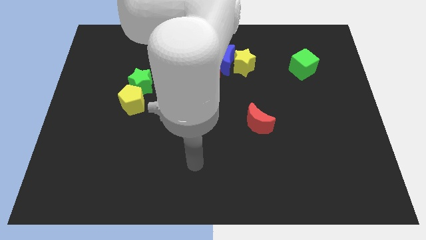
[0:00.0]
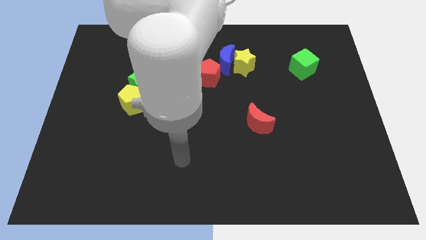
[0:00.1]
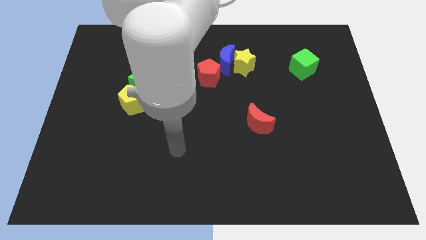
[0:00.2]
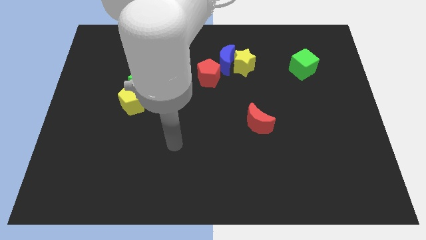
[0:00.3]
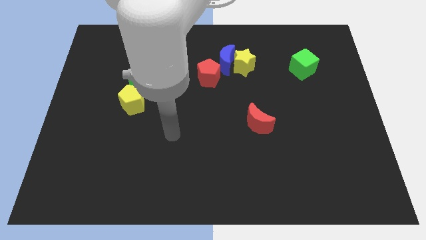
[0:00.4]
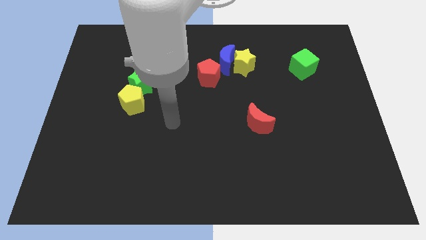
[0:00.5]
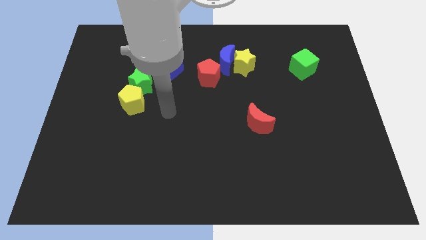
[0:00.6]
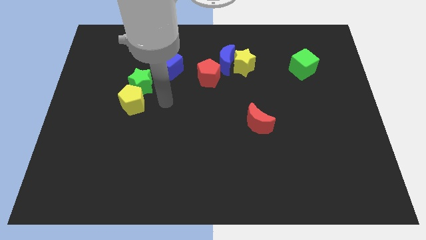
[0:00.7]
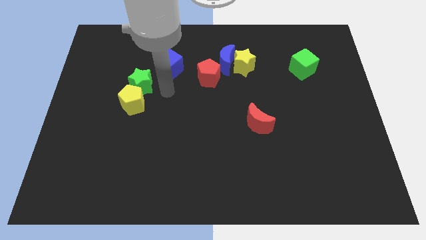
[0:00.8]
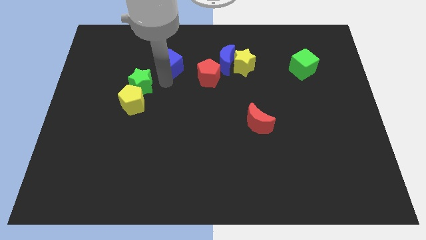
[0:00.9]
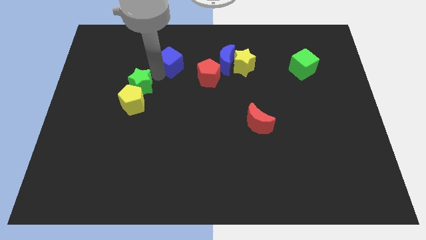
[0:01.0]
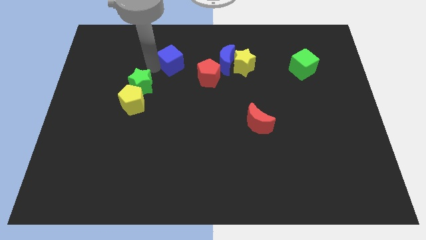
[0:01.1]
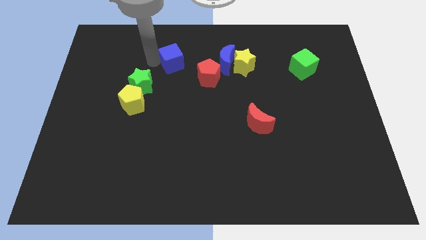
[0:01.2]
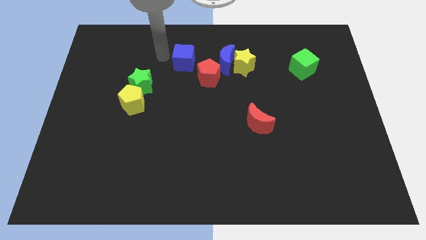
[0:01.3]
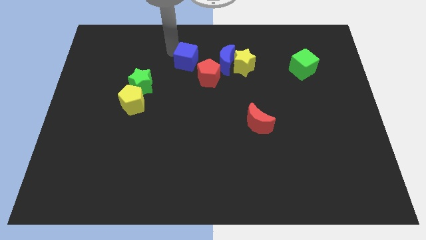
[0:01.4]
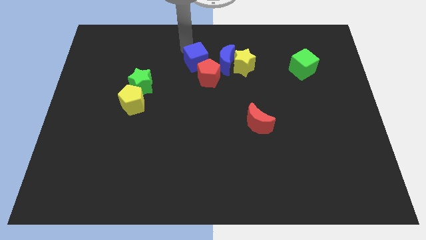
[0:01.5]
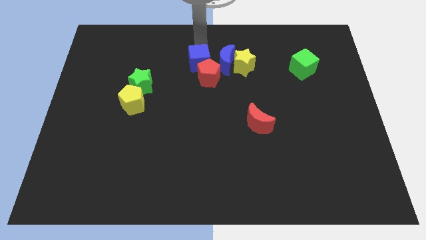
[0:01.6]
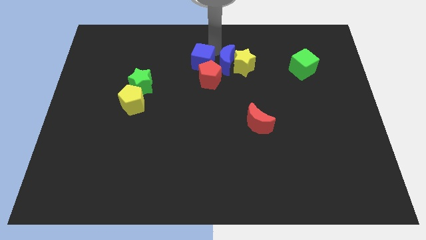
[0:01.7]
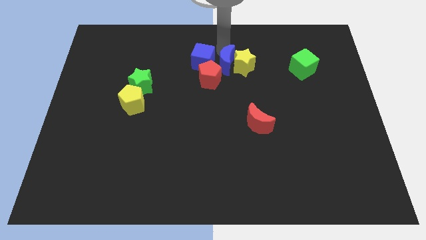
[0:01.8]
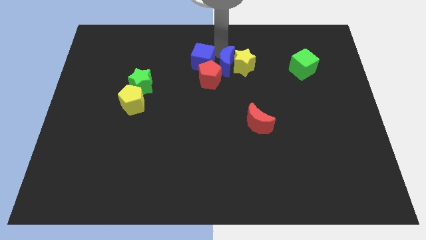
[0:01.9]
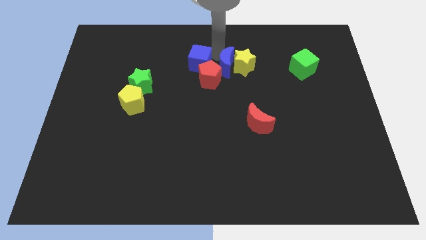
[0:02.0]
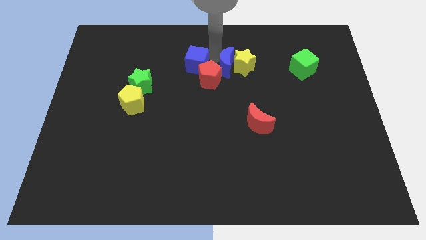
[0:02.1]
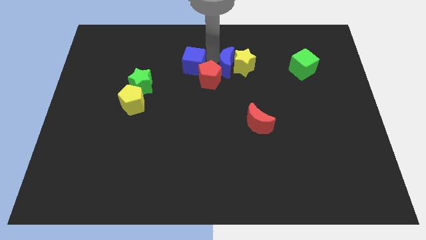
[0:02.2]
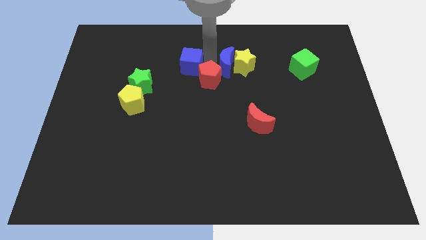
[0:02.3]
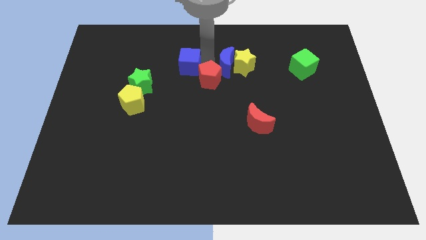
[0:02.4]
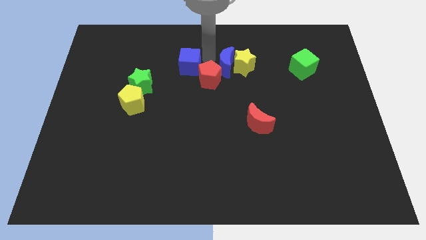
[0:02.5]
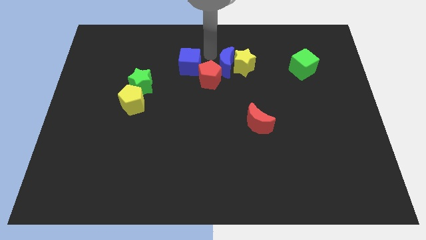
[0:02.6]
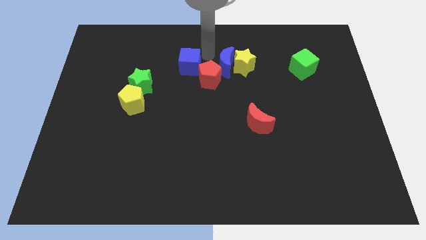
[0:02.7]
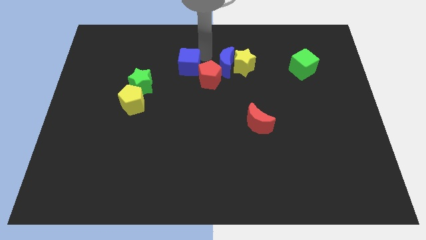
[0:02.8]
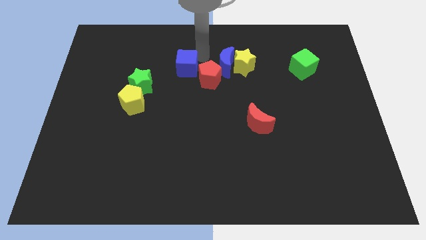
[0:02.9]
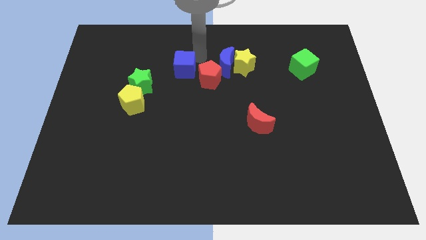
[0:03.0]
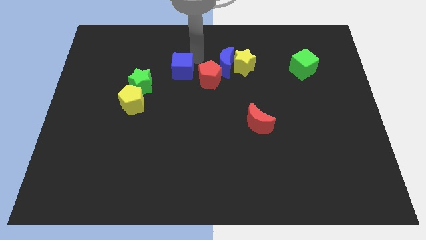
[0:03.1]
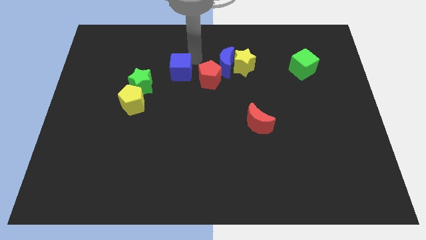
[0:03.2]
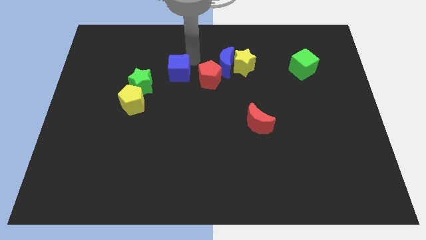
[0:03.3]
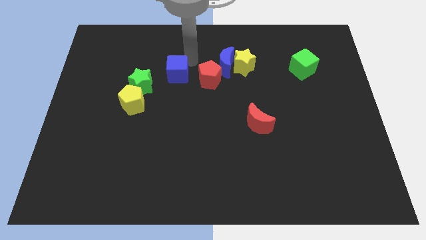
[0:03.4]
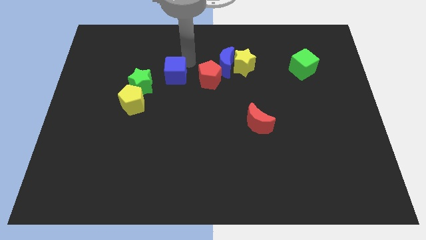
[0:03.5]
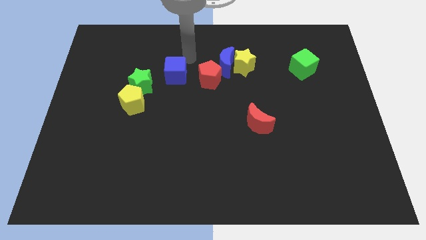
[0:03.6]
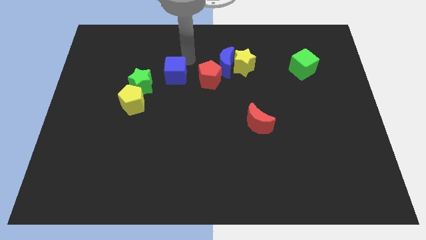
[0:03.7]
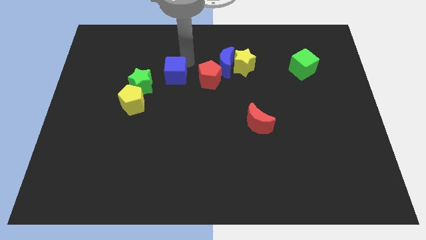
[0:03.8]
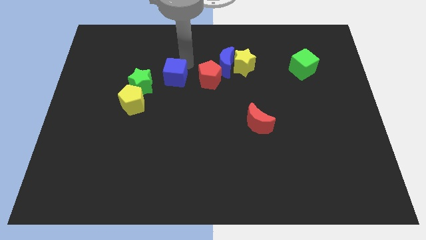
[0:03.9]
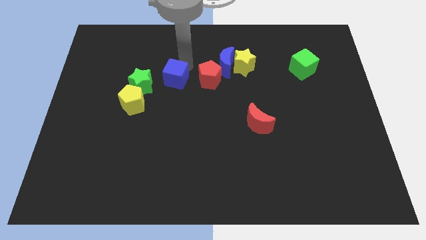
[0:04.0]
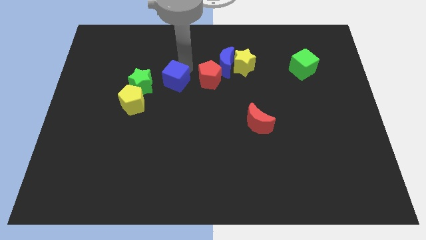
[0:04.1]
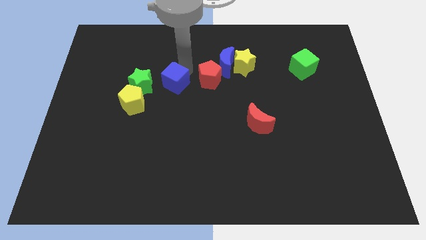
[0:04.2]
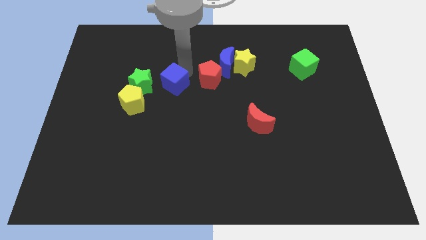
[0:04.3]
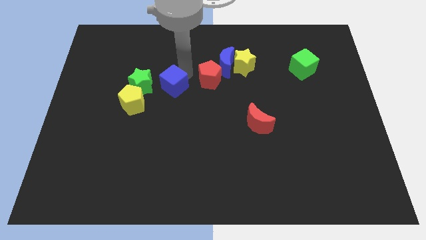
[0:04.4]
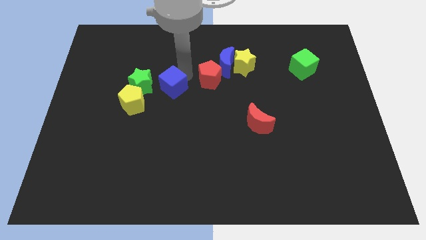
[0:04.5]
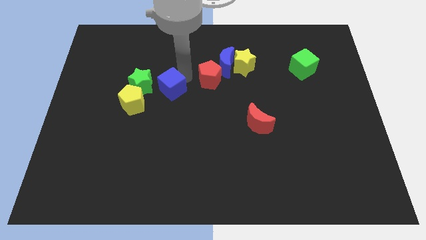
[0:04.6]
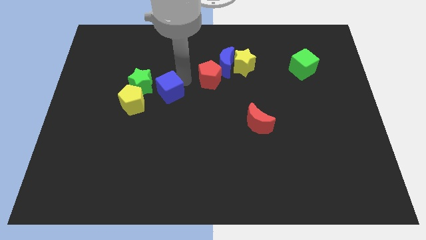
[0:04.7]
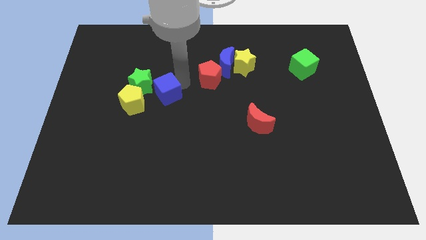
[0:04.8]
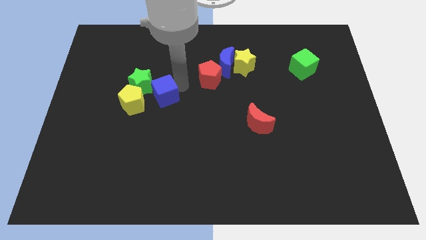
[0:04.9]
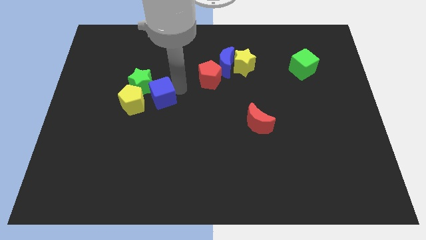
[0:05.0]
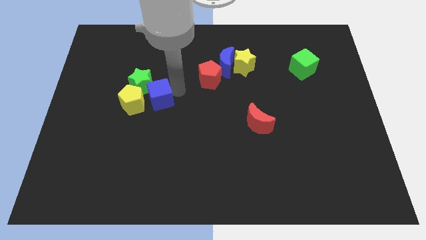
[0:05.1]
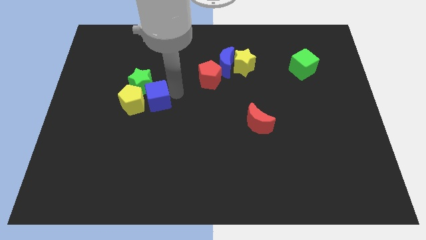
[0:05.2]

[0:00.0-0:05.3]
push the blue cube towards the yellow pentagon

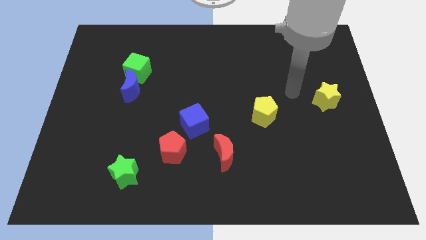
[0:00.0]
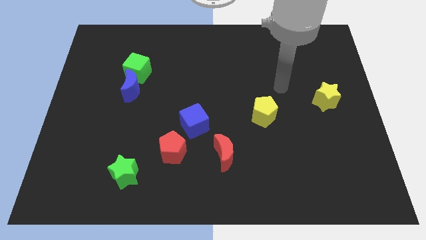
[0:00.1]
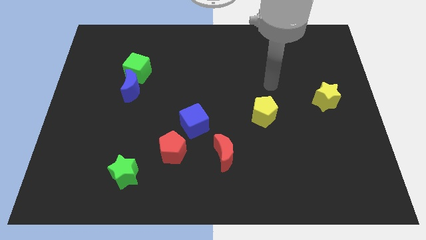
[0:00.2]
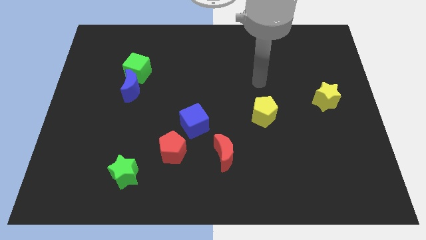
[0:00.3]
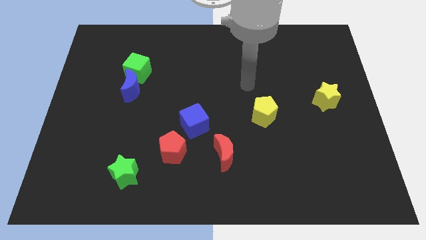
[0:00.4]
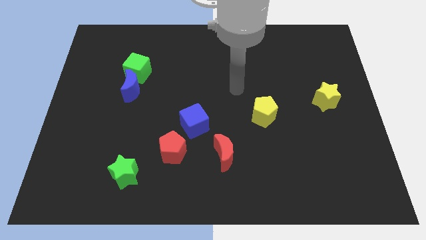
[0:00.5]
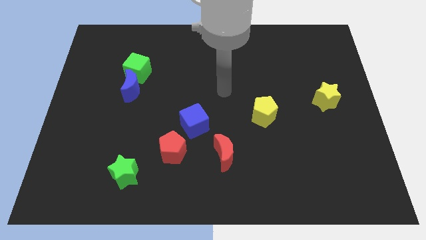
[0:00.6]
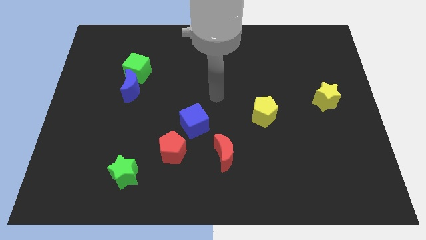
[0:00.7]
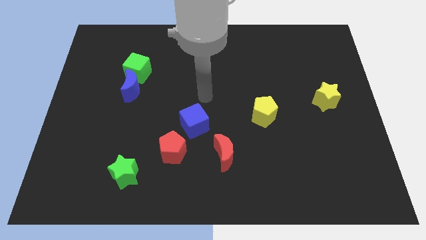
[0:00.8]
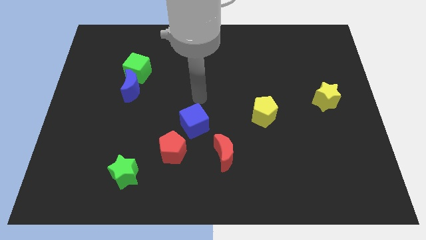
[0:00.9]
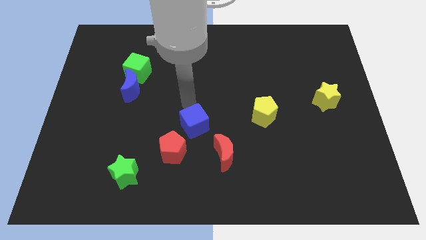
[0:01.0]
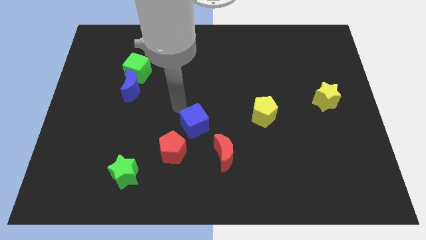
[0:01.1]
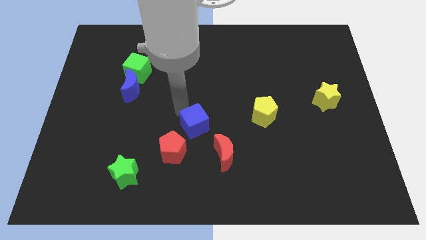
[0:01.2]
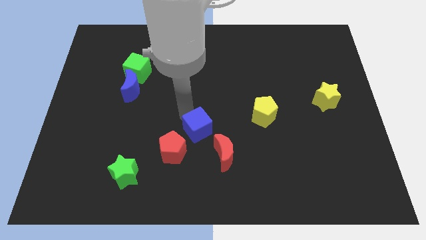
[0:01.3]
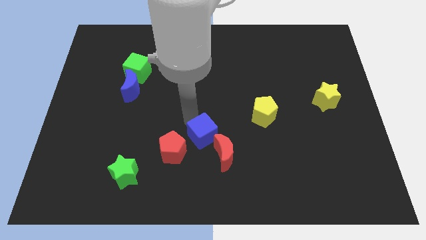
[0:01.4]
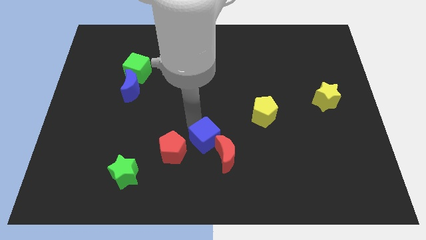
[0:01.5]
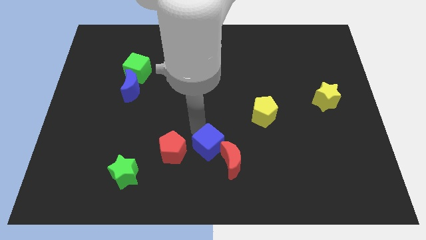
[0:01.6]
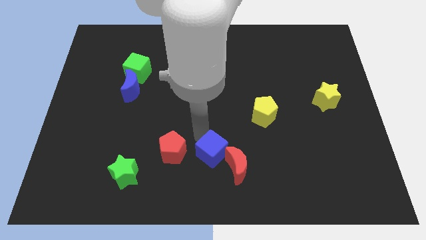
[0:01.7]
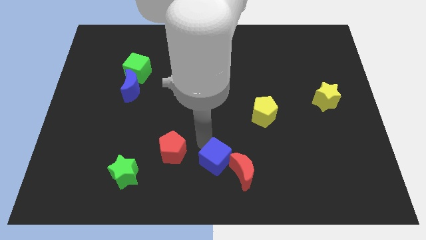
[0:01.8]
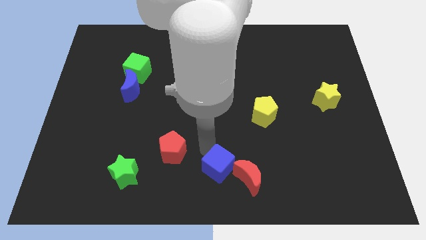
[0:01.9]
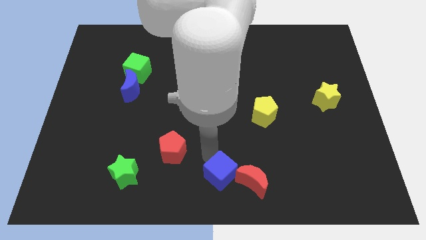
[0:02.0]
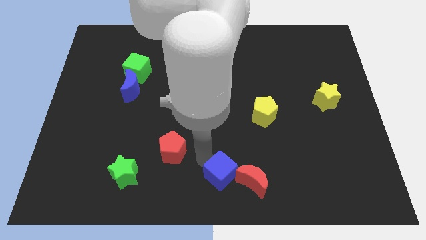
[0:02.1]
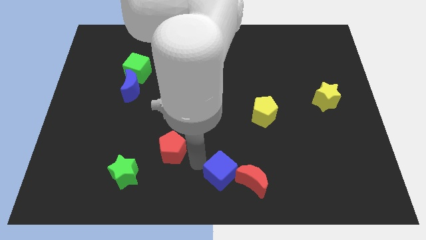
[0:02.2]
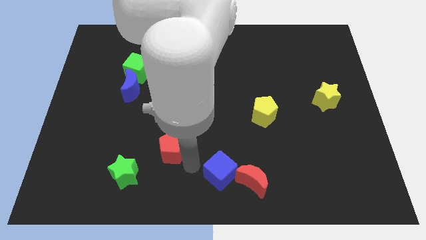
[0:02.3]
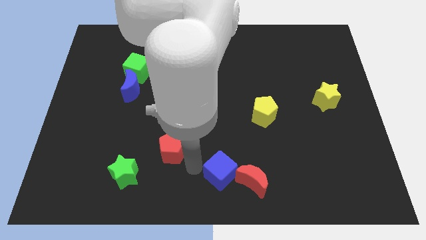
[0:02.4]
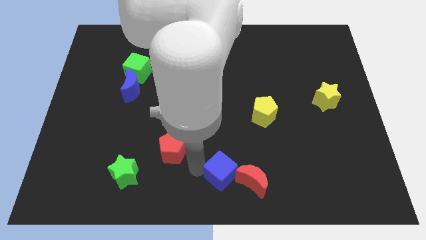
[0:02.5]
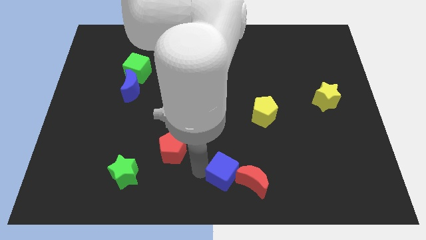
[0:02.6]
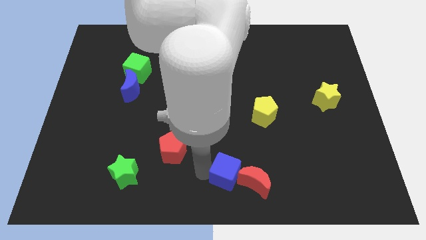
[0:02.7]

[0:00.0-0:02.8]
push the blue cube towards the red moon
